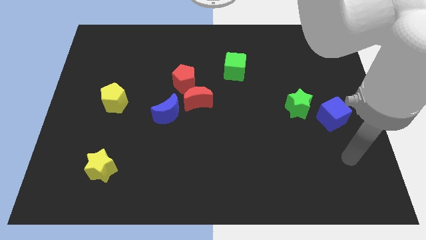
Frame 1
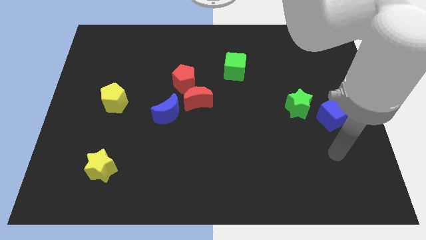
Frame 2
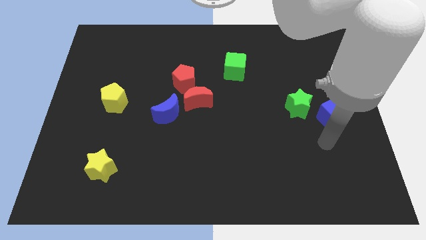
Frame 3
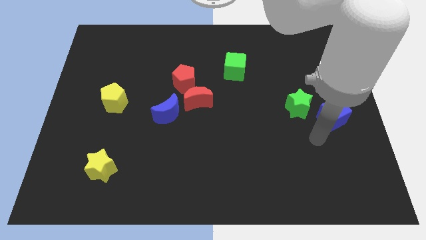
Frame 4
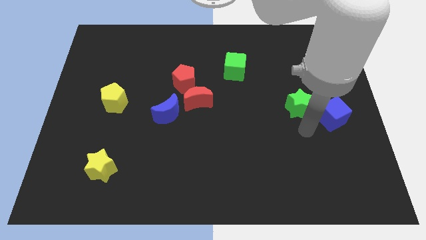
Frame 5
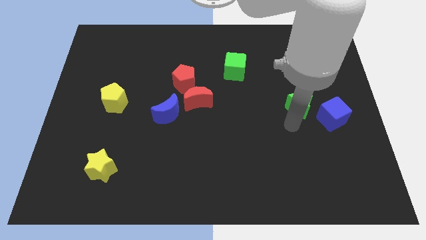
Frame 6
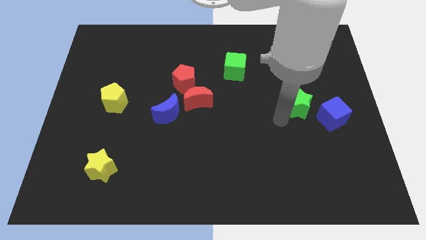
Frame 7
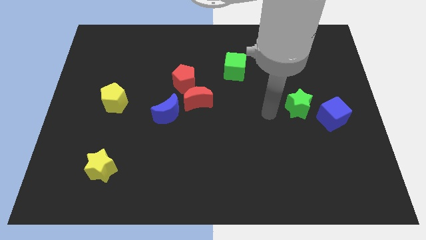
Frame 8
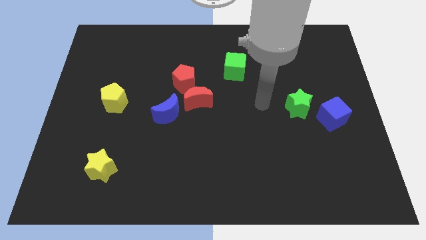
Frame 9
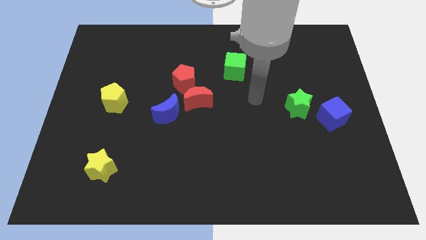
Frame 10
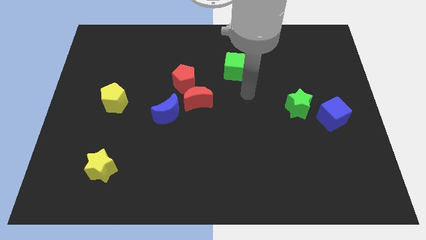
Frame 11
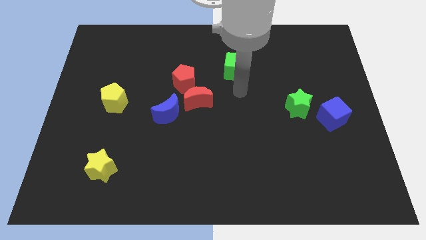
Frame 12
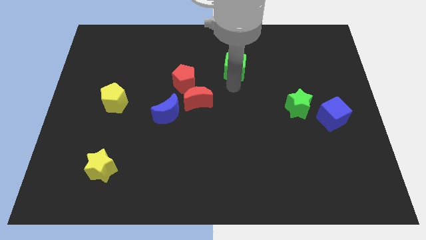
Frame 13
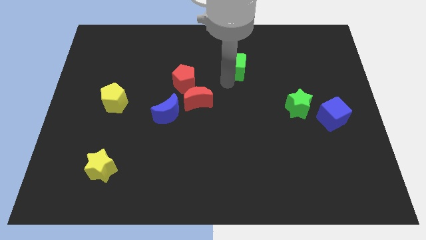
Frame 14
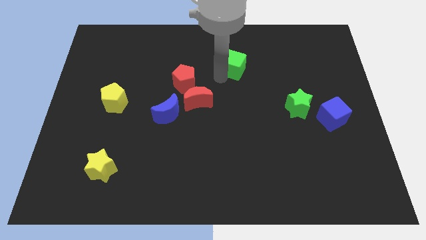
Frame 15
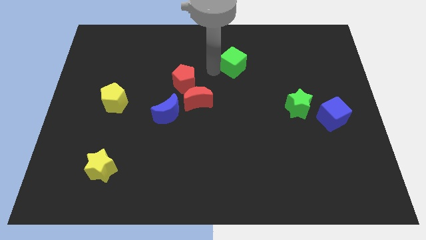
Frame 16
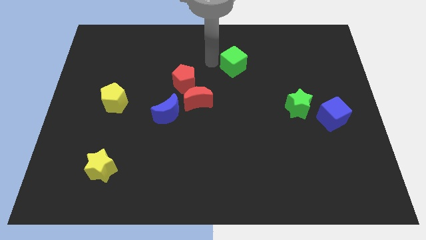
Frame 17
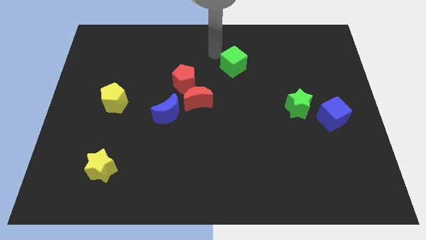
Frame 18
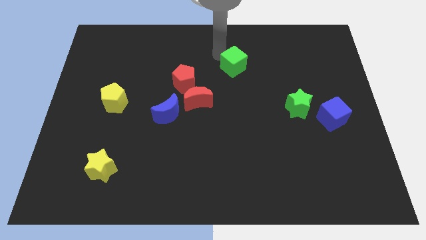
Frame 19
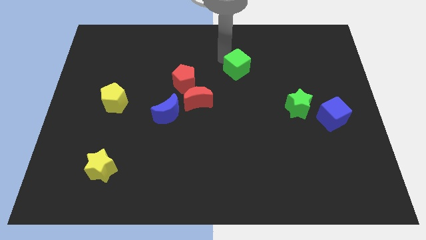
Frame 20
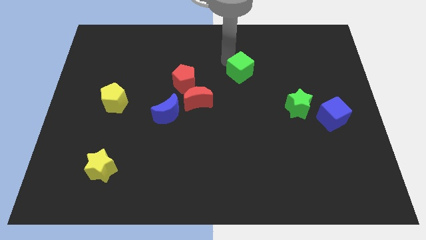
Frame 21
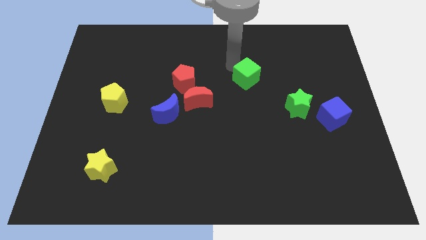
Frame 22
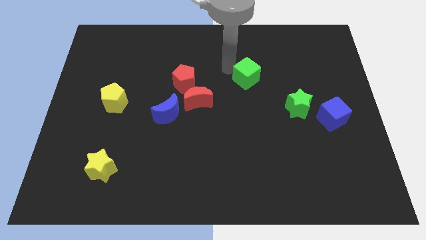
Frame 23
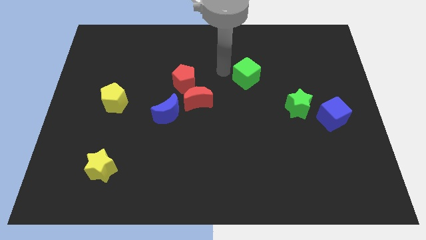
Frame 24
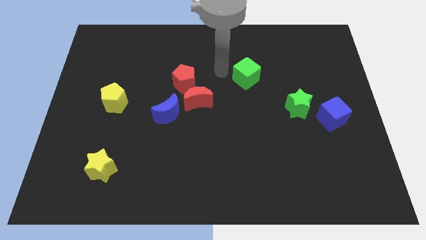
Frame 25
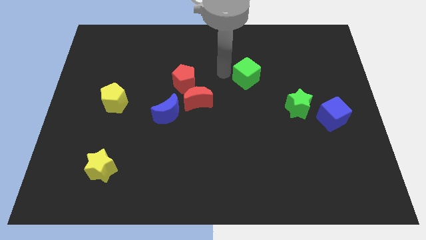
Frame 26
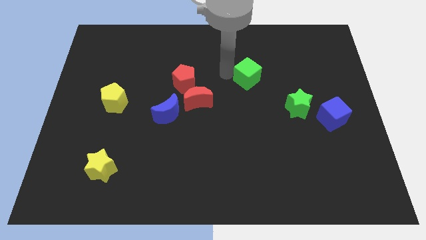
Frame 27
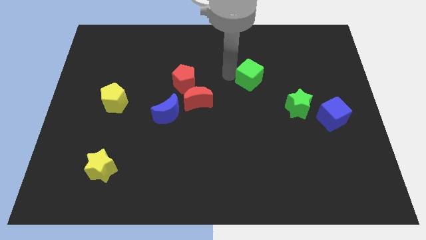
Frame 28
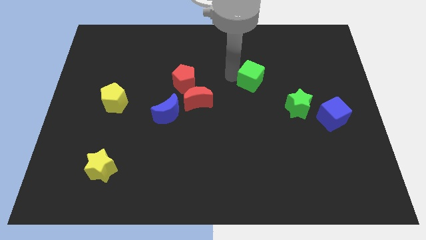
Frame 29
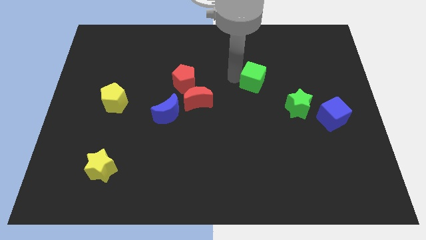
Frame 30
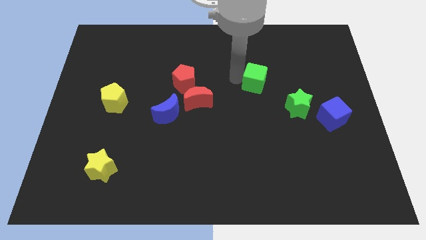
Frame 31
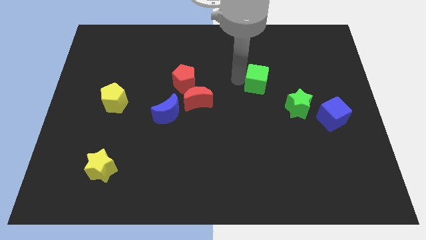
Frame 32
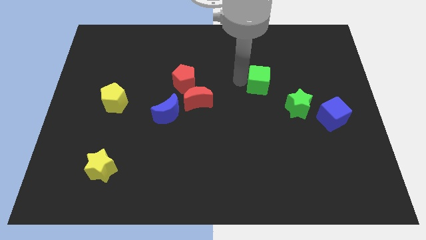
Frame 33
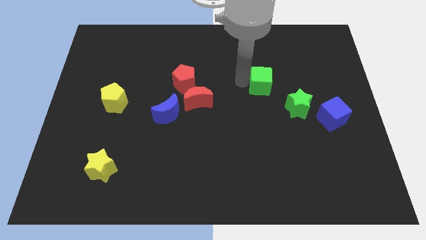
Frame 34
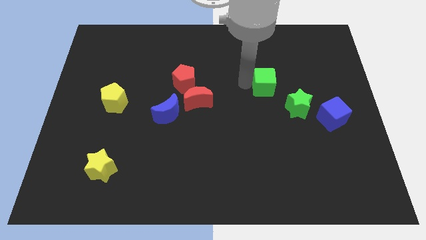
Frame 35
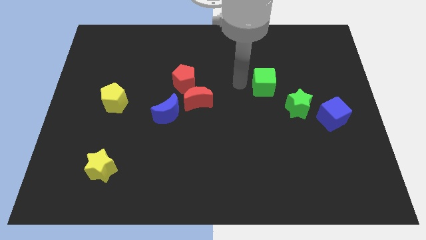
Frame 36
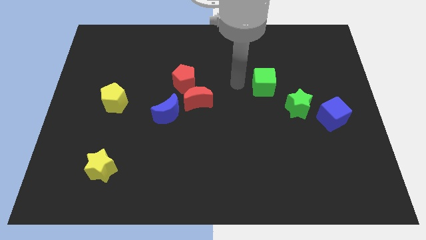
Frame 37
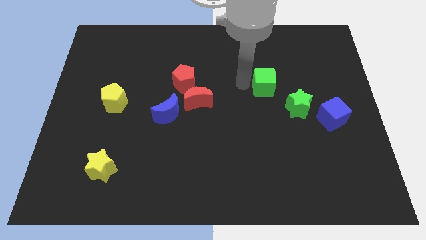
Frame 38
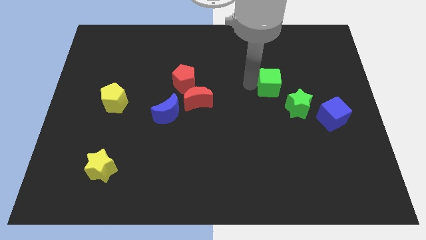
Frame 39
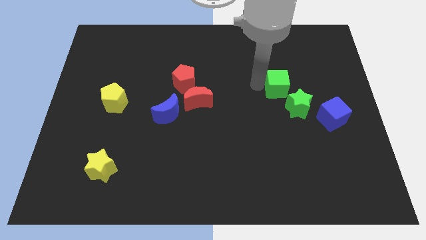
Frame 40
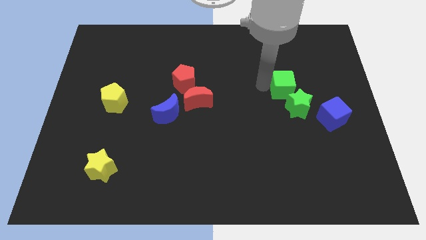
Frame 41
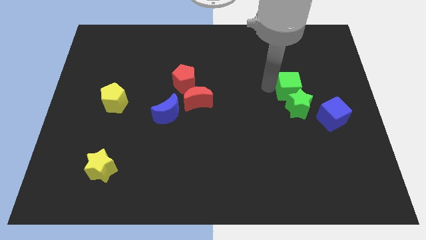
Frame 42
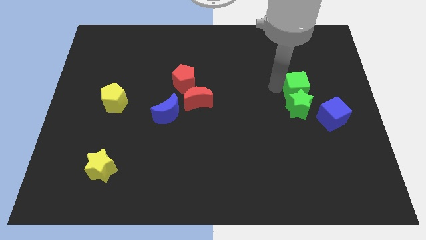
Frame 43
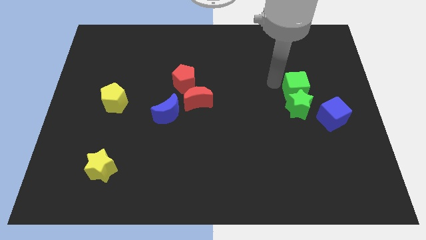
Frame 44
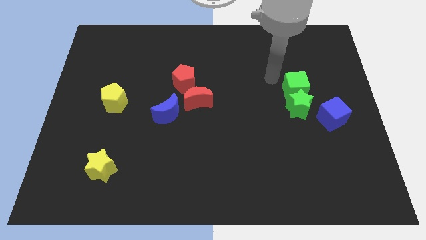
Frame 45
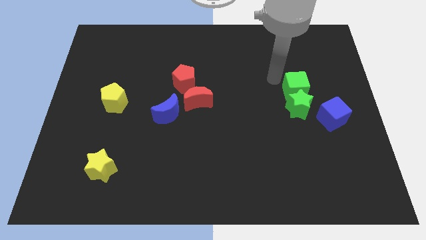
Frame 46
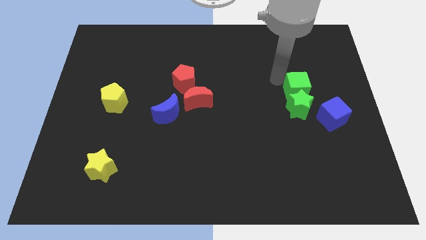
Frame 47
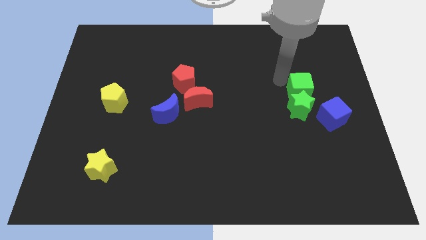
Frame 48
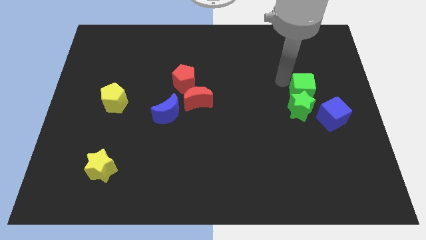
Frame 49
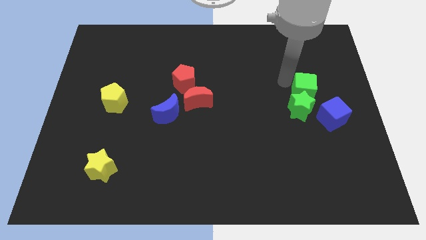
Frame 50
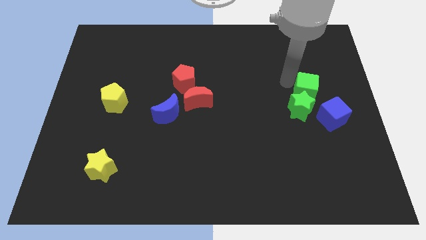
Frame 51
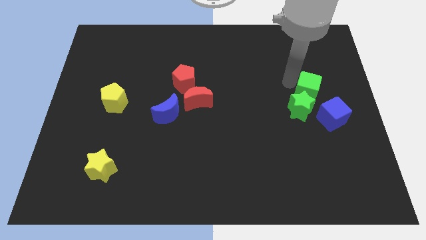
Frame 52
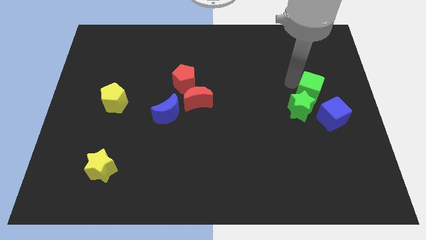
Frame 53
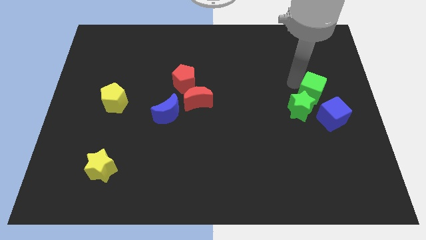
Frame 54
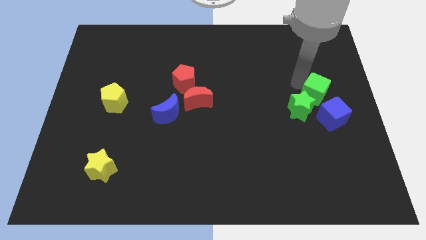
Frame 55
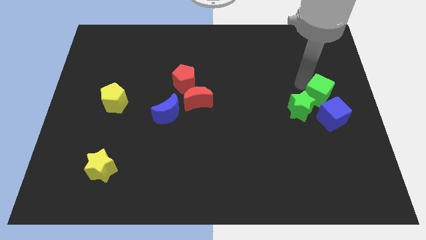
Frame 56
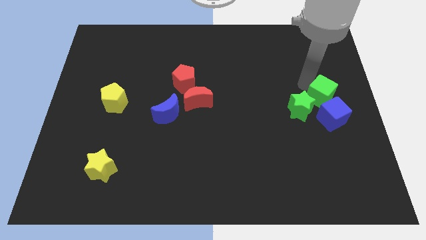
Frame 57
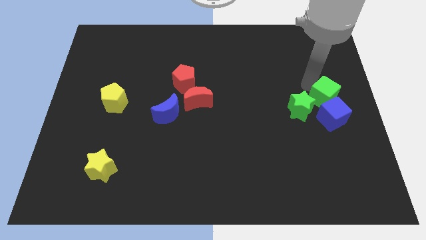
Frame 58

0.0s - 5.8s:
slide the green cube towards the blue cube

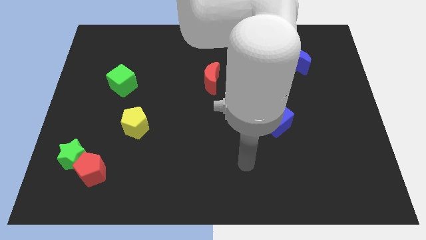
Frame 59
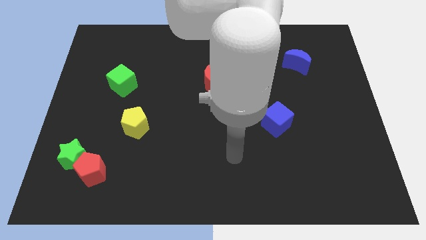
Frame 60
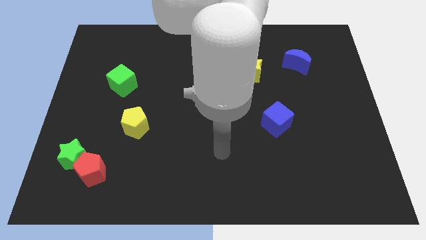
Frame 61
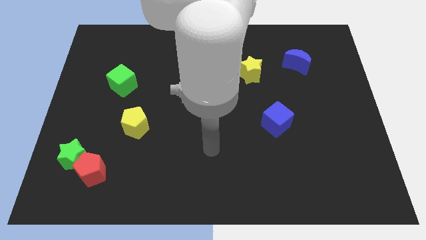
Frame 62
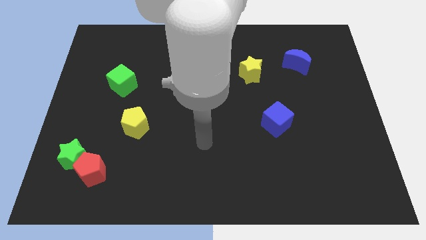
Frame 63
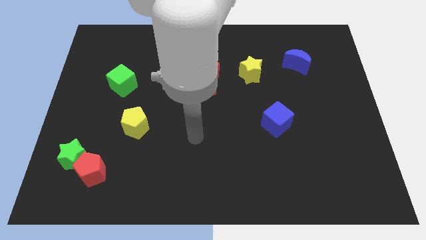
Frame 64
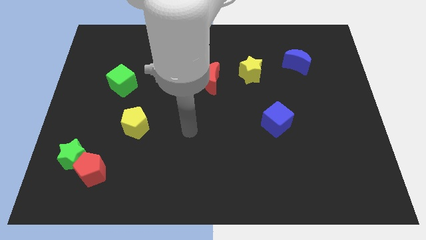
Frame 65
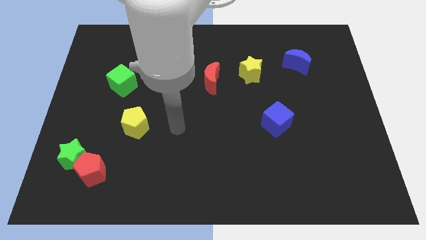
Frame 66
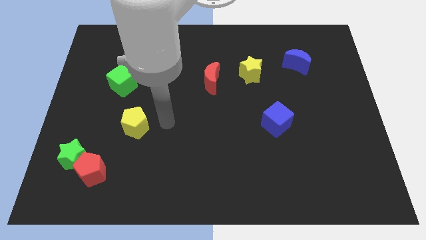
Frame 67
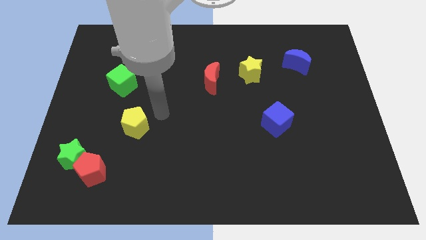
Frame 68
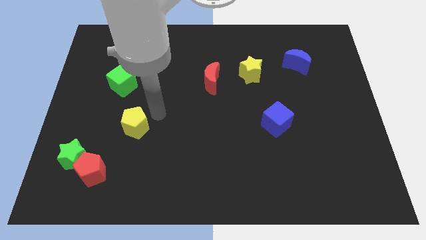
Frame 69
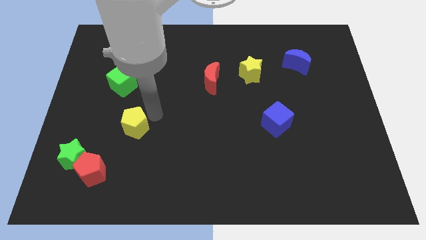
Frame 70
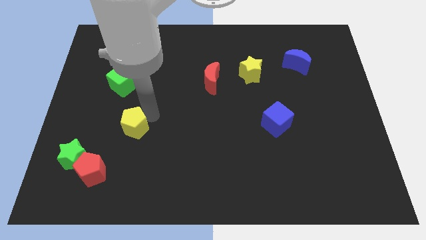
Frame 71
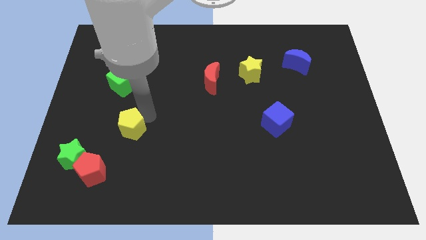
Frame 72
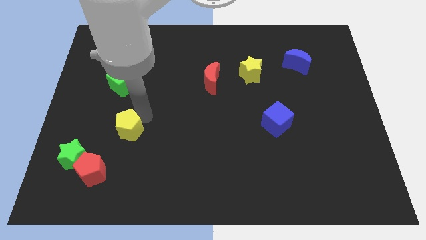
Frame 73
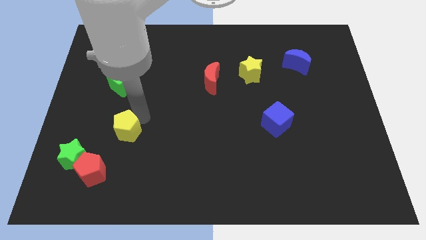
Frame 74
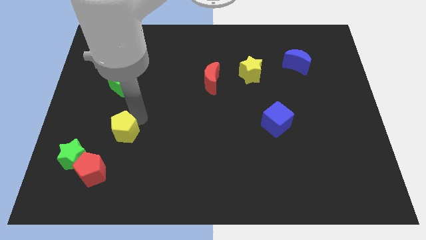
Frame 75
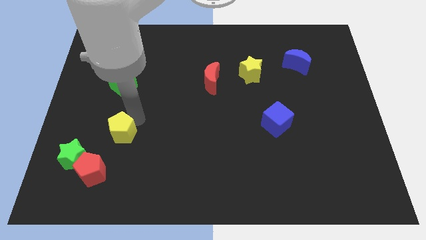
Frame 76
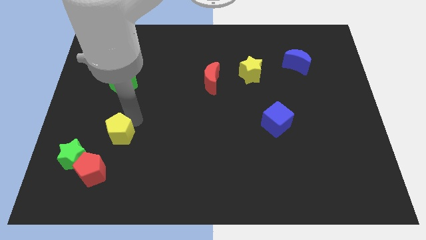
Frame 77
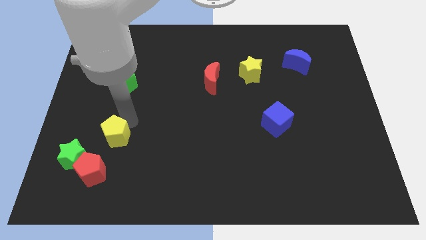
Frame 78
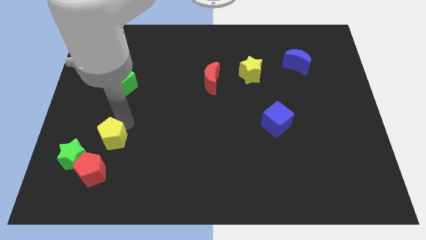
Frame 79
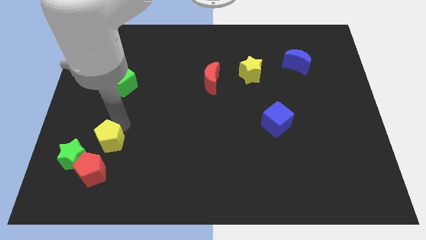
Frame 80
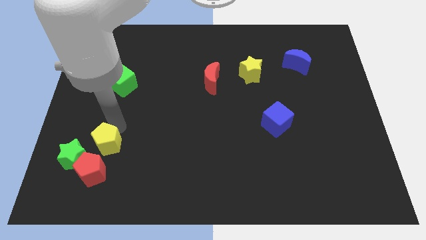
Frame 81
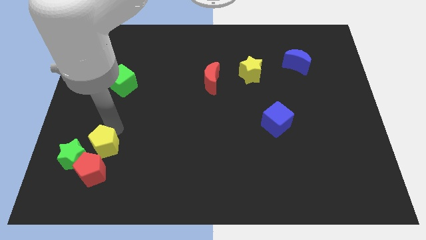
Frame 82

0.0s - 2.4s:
slide the yellow pentagon close to the green star
